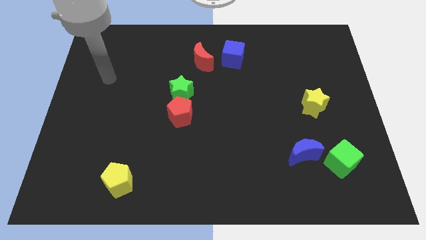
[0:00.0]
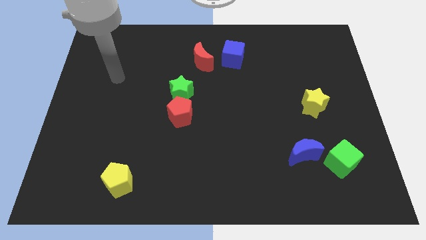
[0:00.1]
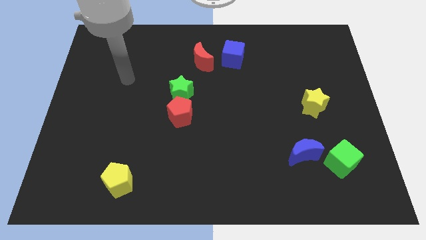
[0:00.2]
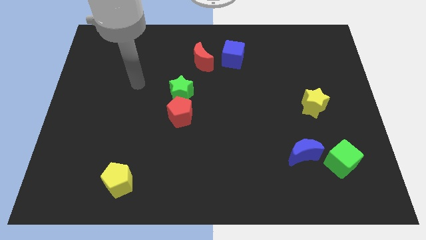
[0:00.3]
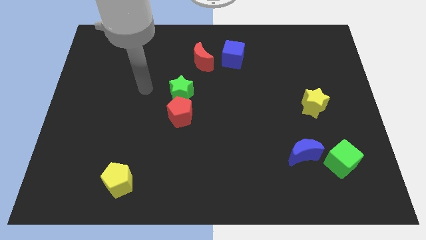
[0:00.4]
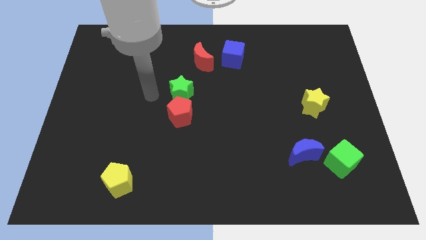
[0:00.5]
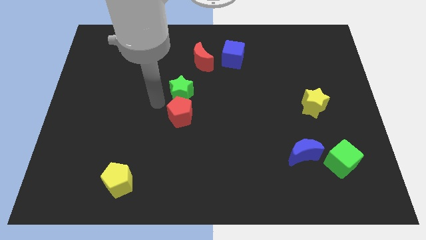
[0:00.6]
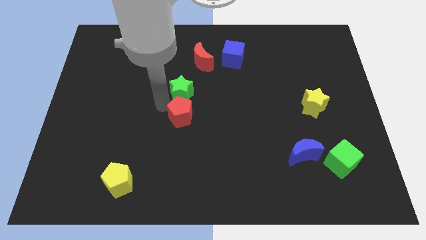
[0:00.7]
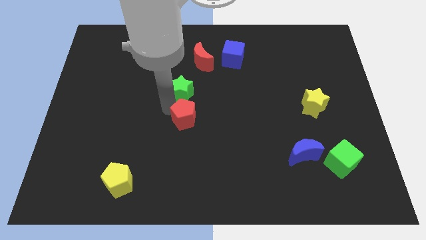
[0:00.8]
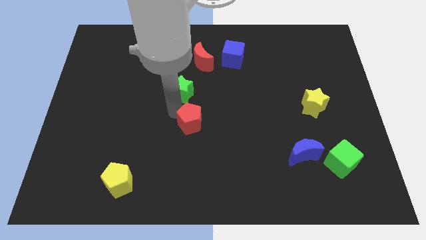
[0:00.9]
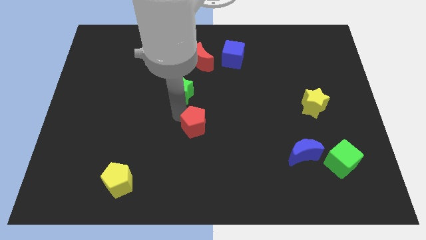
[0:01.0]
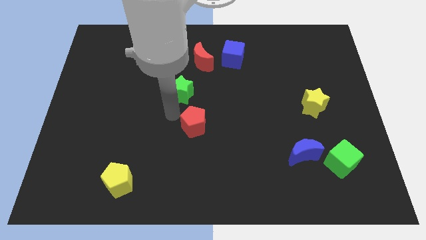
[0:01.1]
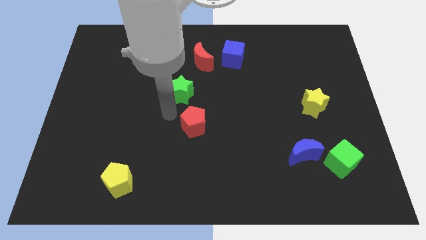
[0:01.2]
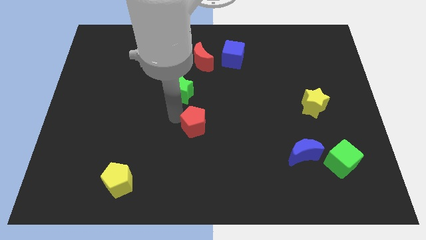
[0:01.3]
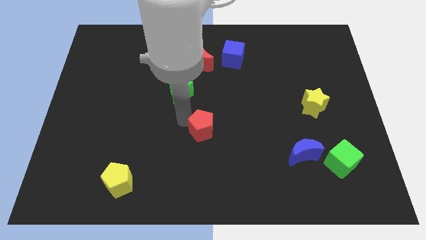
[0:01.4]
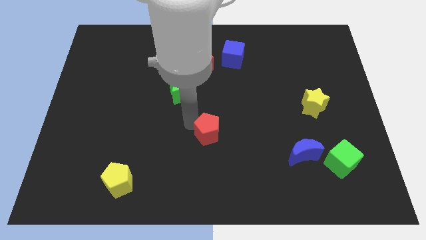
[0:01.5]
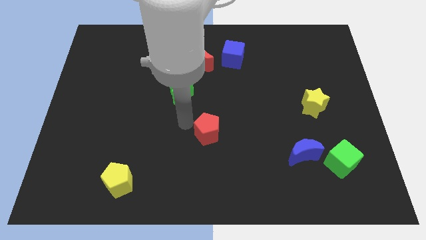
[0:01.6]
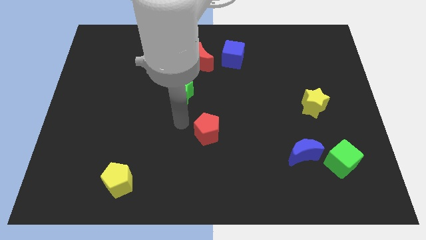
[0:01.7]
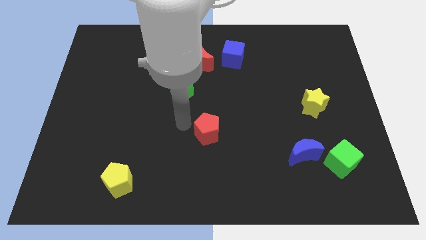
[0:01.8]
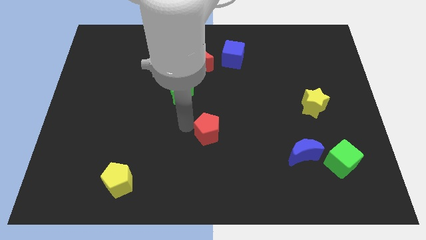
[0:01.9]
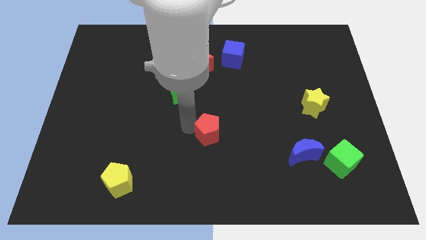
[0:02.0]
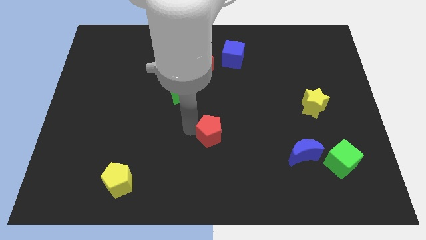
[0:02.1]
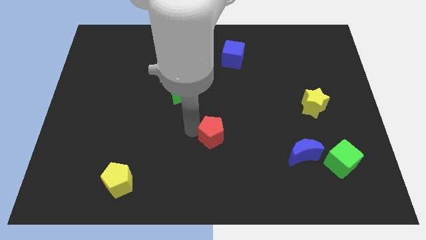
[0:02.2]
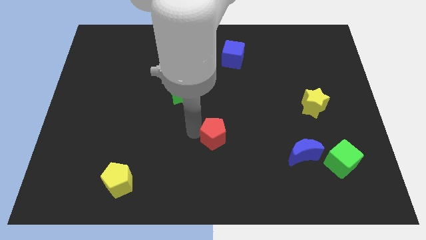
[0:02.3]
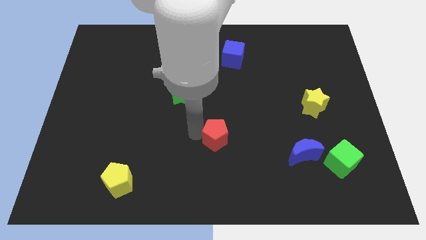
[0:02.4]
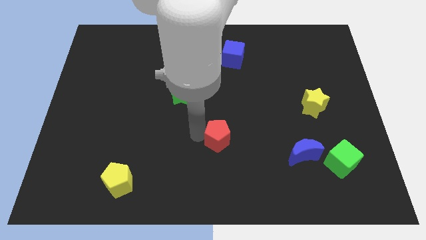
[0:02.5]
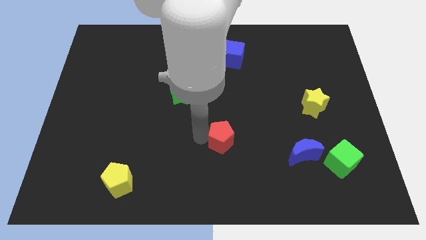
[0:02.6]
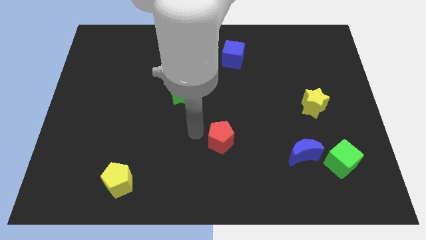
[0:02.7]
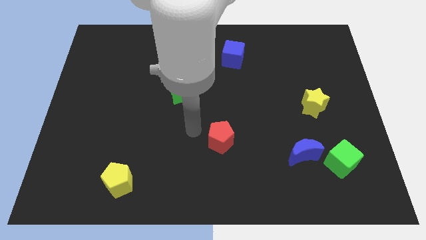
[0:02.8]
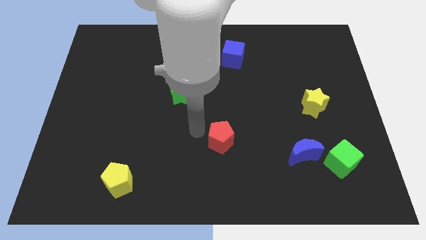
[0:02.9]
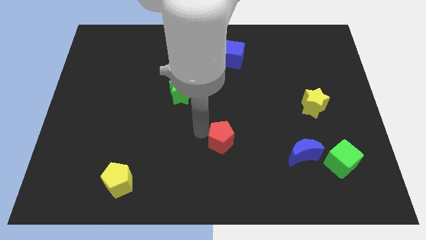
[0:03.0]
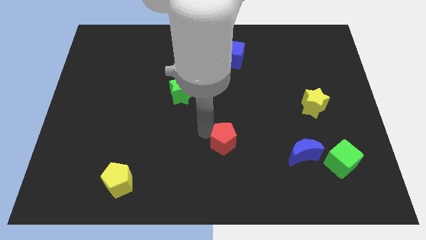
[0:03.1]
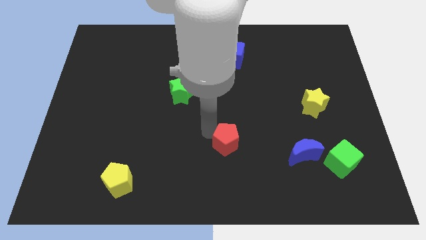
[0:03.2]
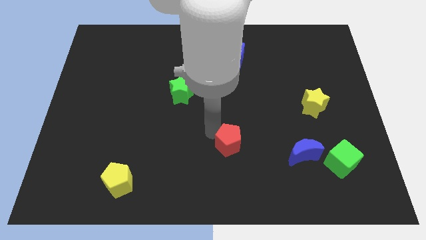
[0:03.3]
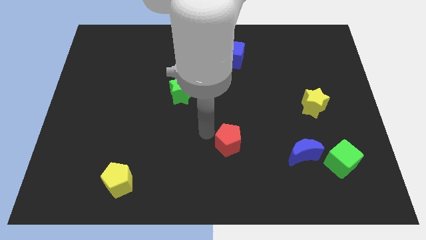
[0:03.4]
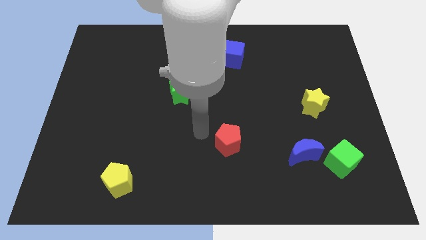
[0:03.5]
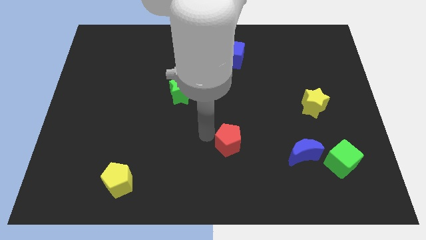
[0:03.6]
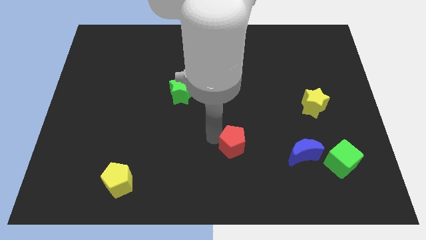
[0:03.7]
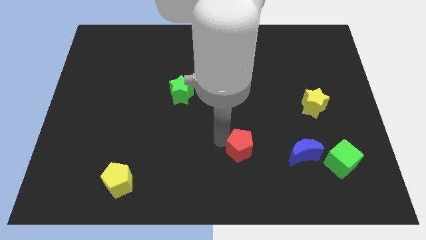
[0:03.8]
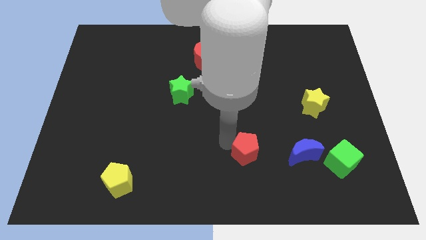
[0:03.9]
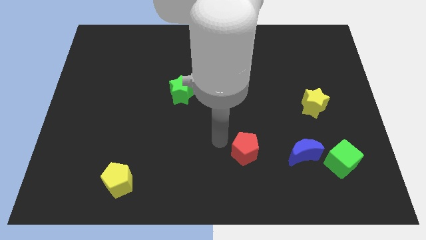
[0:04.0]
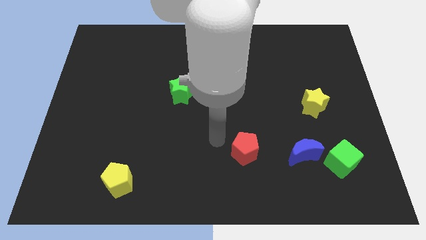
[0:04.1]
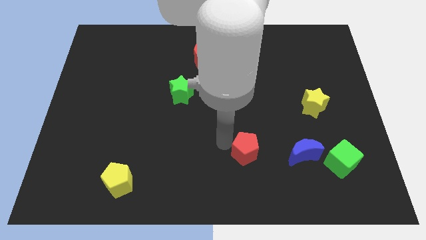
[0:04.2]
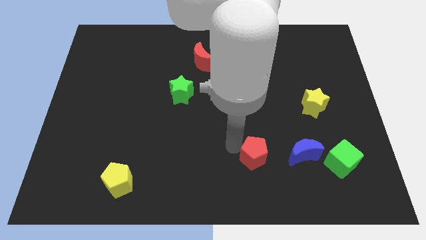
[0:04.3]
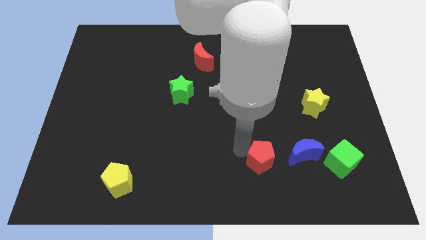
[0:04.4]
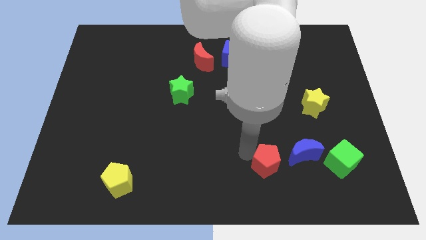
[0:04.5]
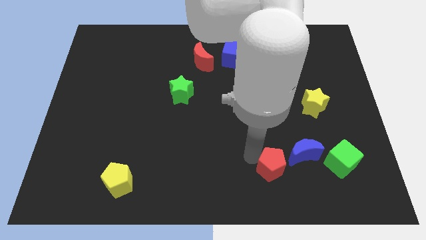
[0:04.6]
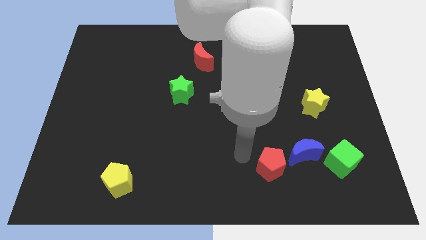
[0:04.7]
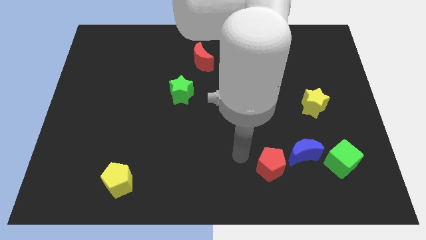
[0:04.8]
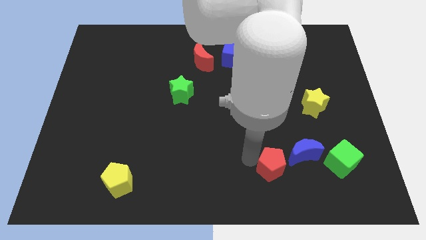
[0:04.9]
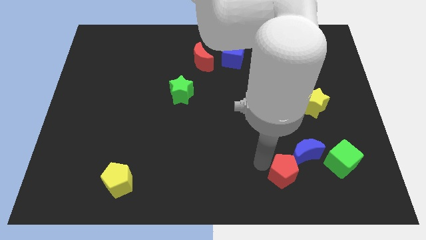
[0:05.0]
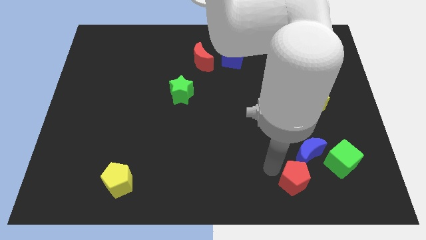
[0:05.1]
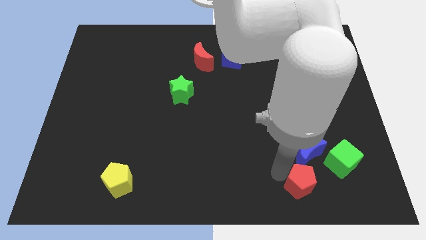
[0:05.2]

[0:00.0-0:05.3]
put the red pentagon diagonally down and to the left of the green cube

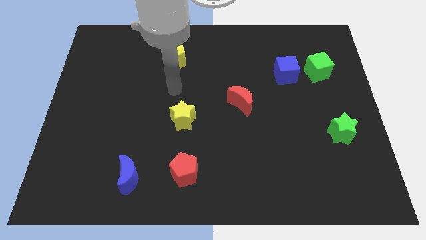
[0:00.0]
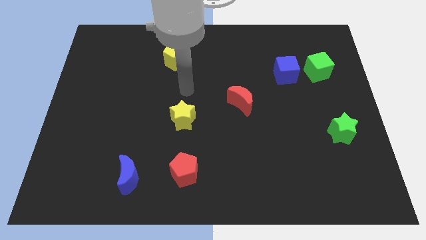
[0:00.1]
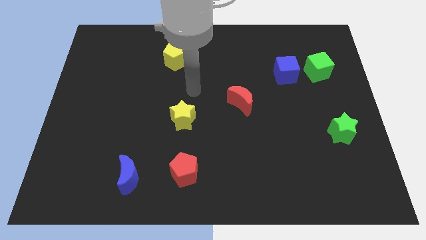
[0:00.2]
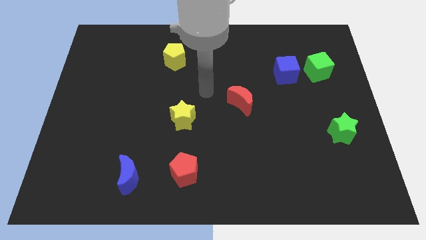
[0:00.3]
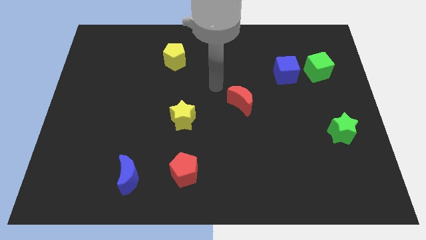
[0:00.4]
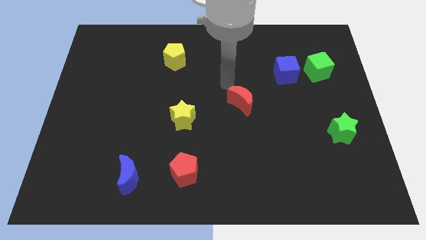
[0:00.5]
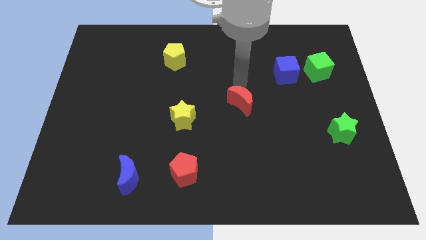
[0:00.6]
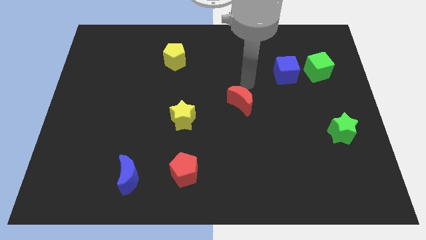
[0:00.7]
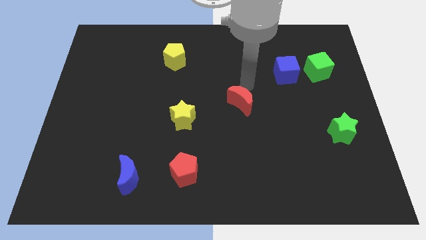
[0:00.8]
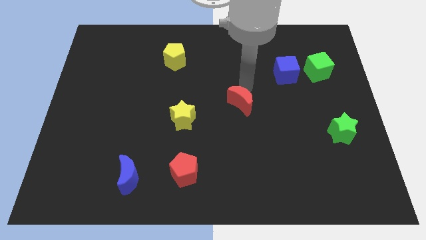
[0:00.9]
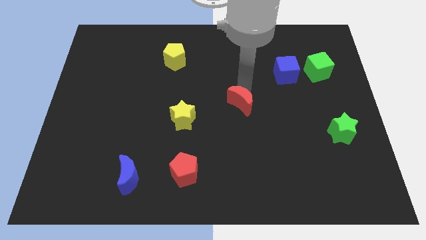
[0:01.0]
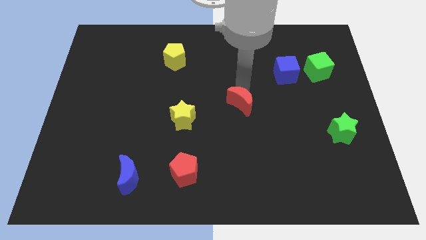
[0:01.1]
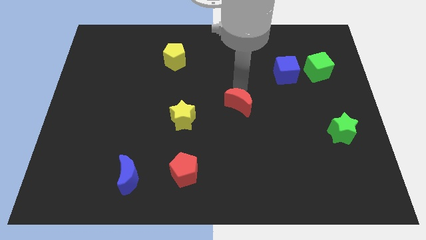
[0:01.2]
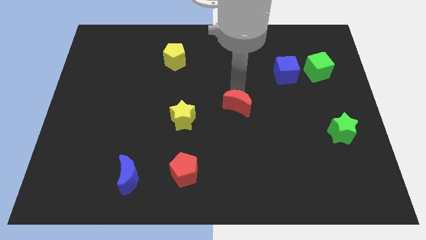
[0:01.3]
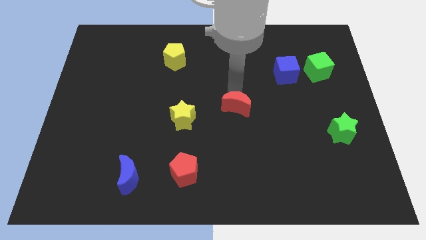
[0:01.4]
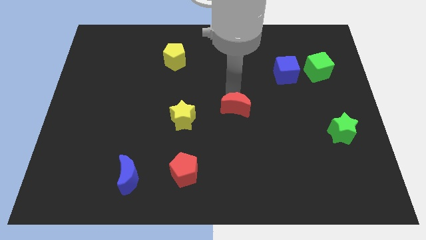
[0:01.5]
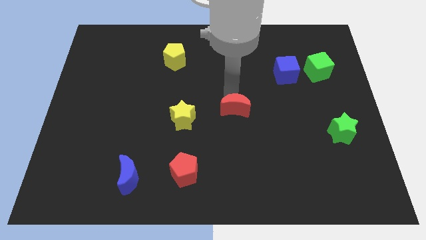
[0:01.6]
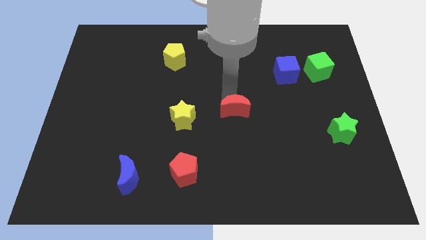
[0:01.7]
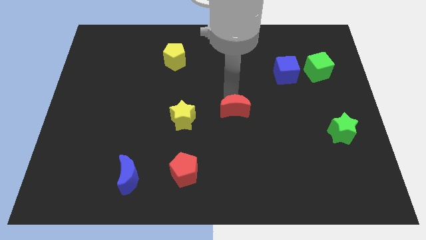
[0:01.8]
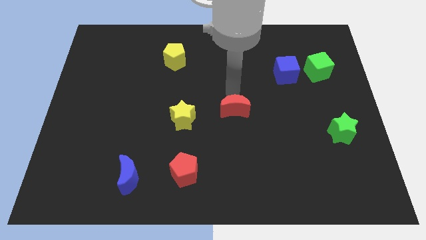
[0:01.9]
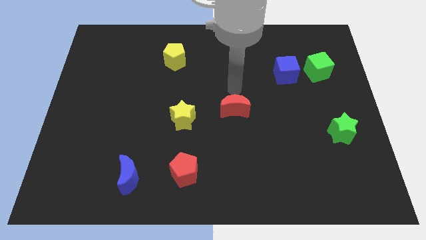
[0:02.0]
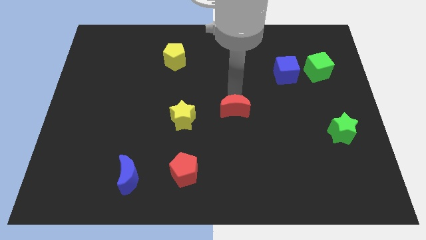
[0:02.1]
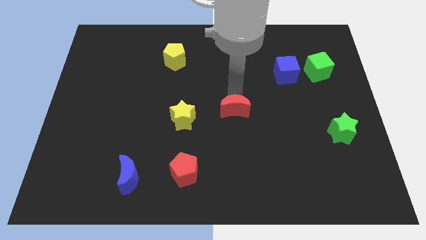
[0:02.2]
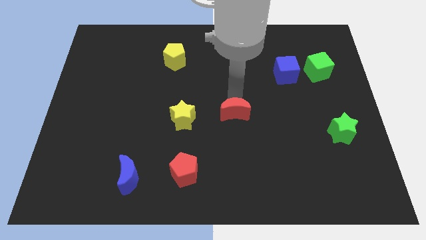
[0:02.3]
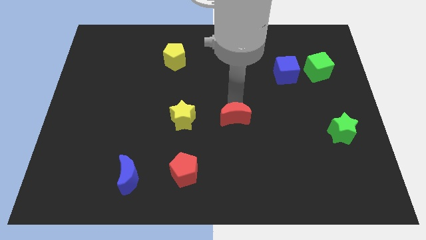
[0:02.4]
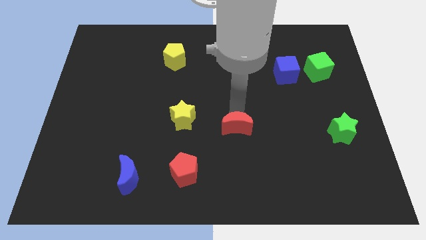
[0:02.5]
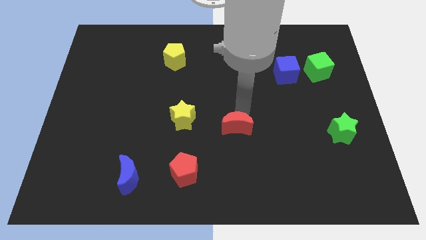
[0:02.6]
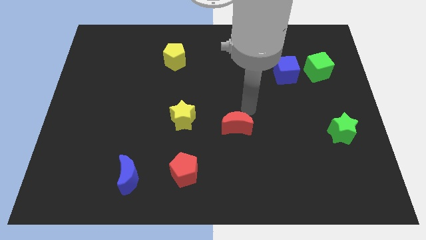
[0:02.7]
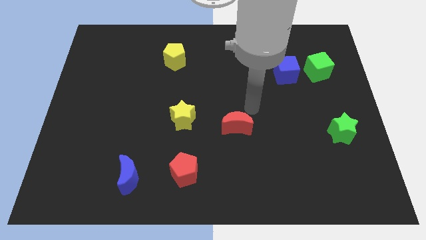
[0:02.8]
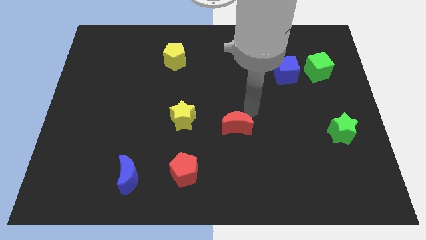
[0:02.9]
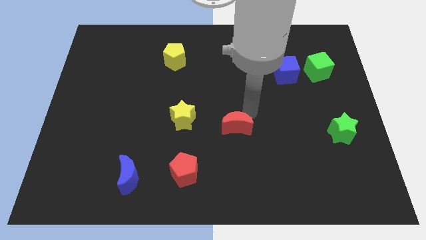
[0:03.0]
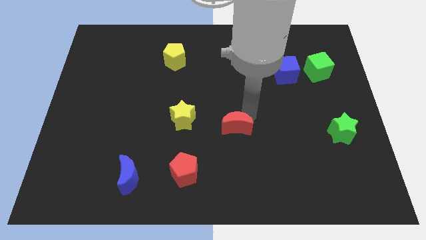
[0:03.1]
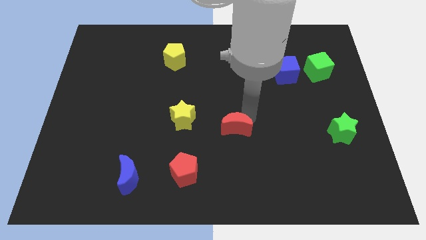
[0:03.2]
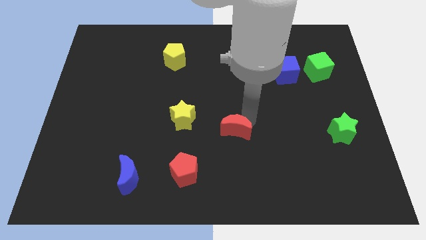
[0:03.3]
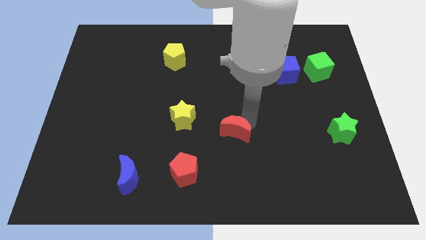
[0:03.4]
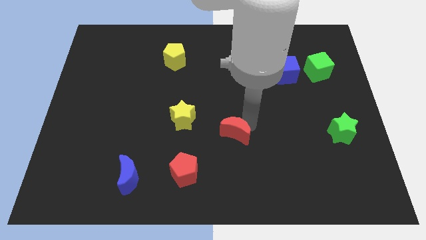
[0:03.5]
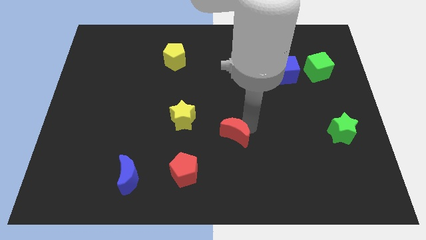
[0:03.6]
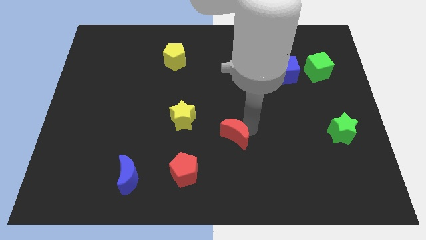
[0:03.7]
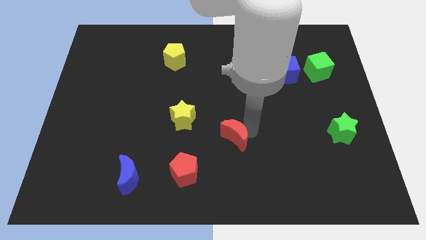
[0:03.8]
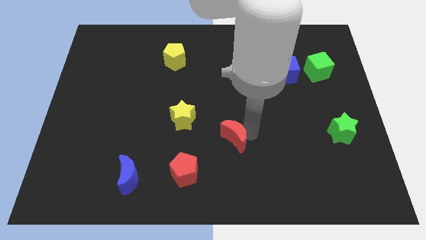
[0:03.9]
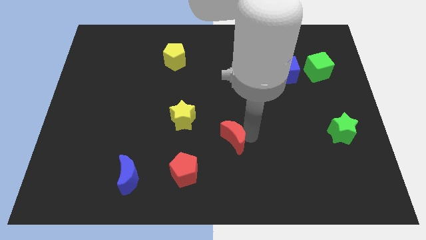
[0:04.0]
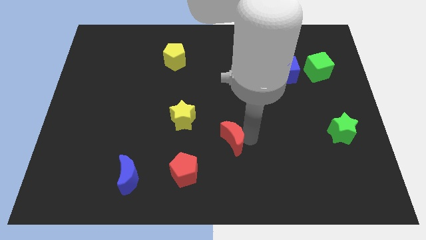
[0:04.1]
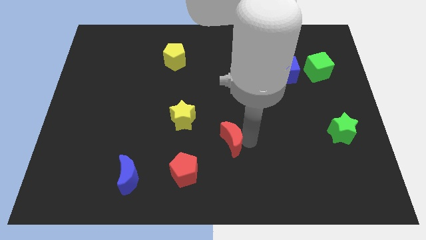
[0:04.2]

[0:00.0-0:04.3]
move the red moon diagonally up and to the right of the red pentagon
